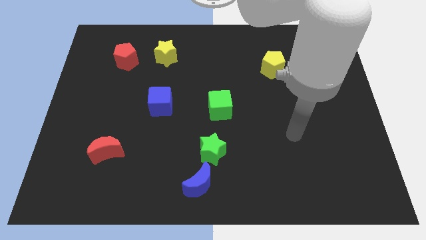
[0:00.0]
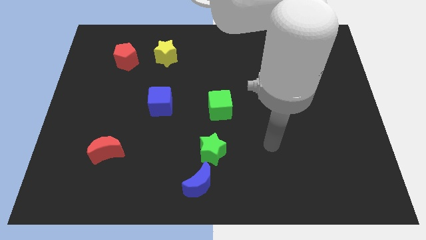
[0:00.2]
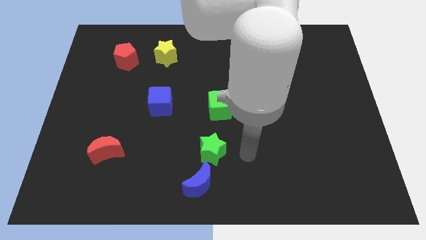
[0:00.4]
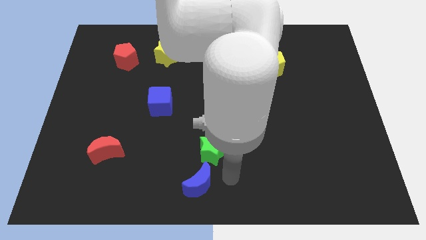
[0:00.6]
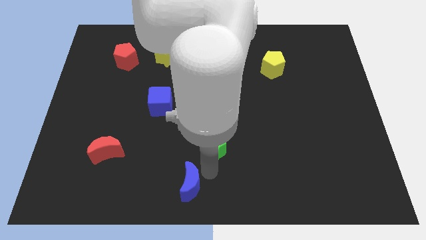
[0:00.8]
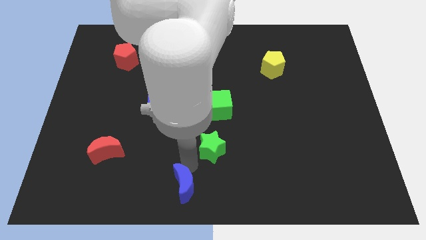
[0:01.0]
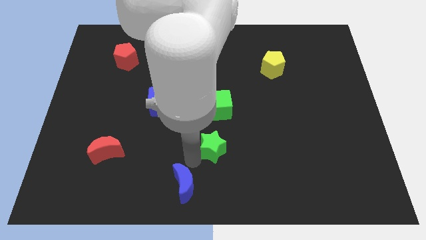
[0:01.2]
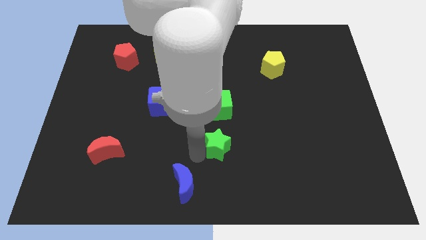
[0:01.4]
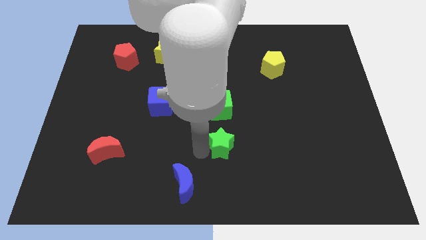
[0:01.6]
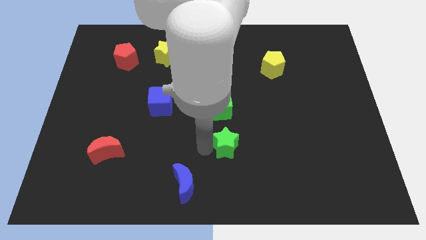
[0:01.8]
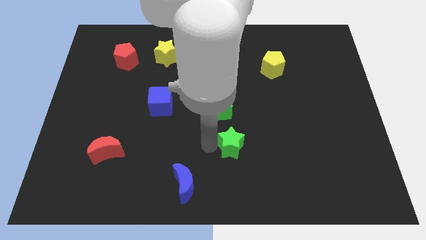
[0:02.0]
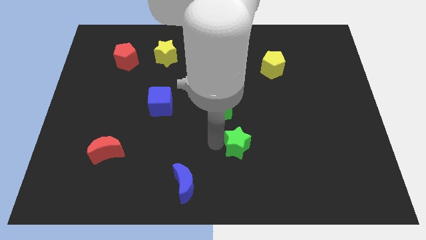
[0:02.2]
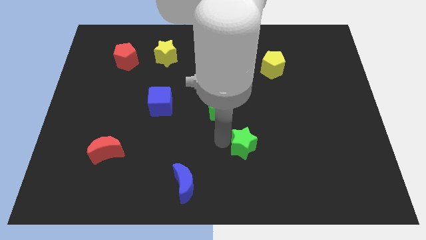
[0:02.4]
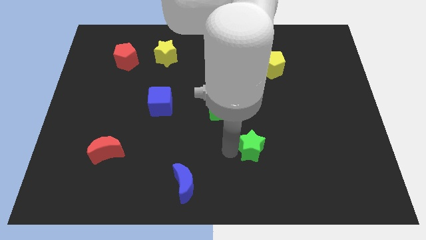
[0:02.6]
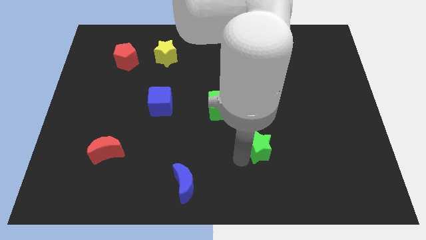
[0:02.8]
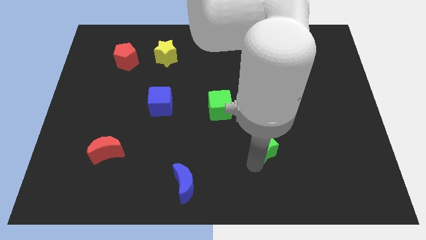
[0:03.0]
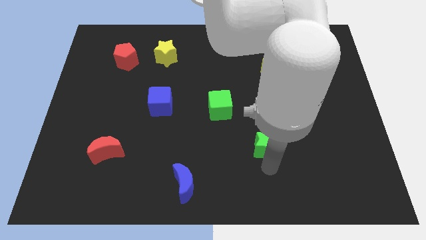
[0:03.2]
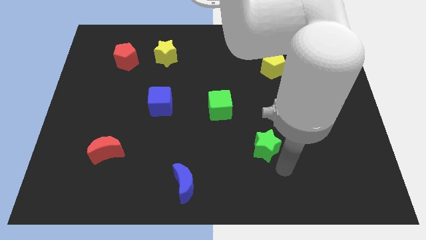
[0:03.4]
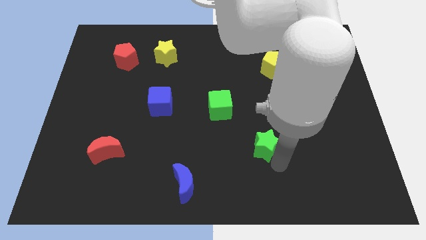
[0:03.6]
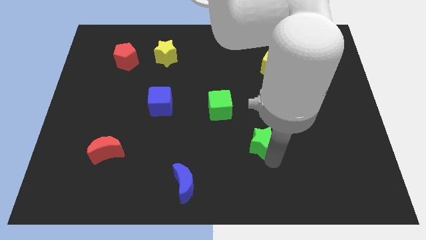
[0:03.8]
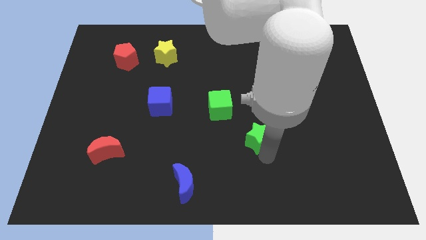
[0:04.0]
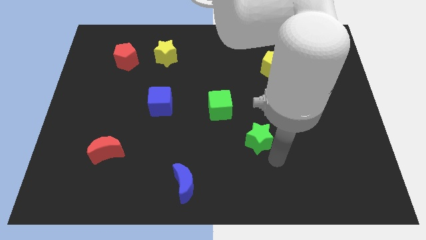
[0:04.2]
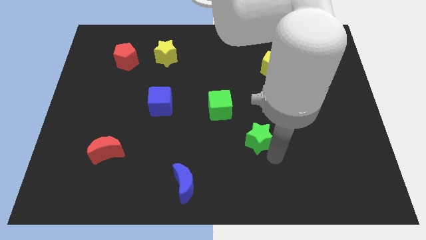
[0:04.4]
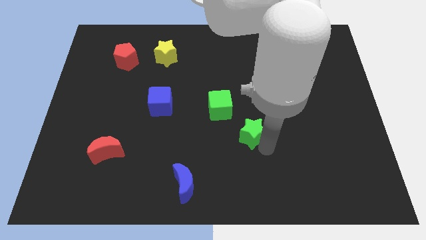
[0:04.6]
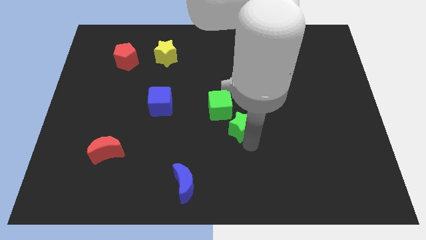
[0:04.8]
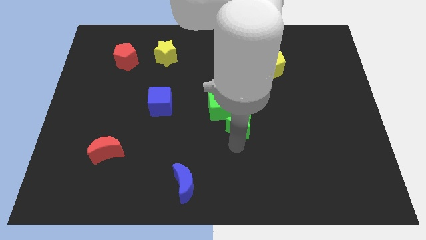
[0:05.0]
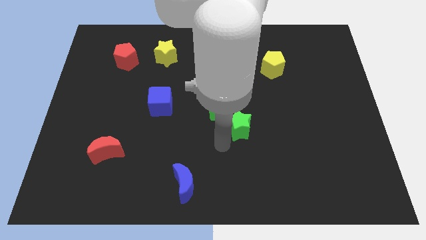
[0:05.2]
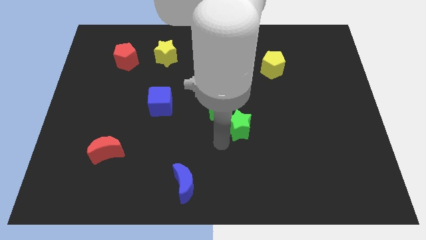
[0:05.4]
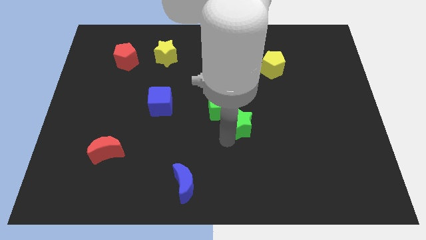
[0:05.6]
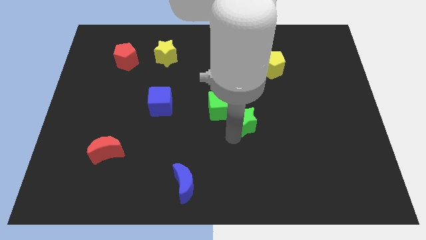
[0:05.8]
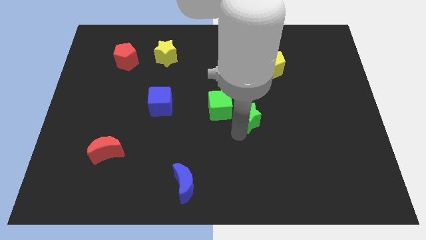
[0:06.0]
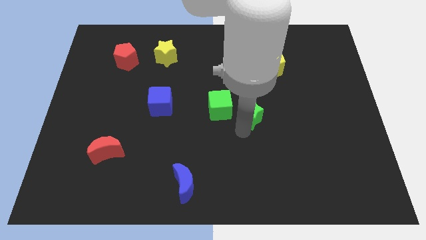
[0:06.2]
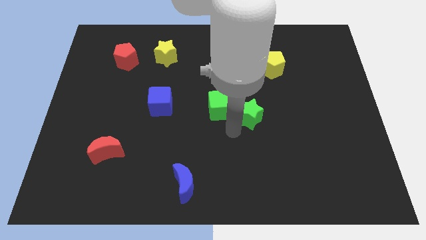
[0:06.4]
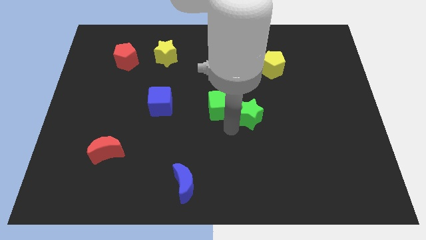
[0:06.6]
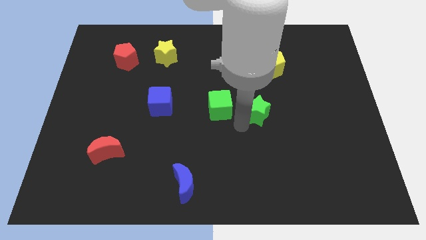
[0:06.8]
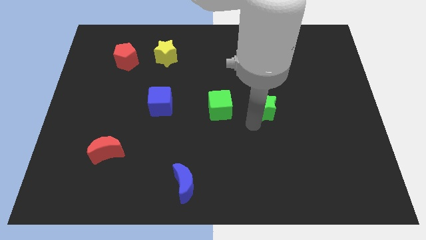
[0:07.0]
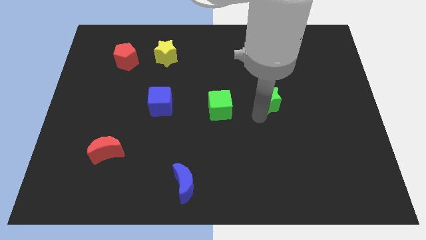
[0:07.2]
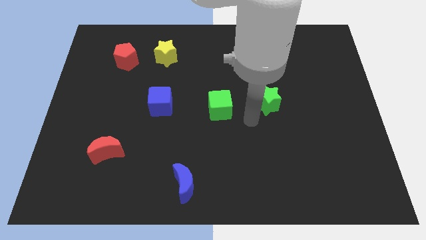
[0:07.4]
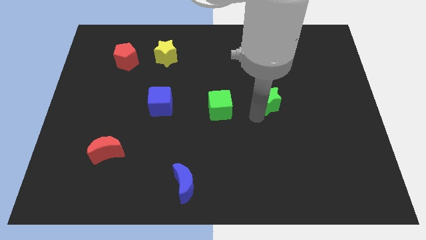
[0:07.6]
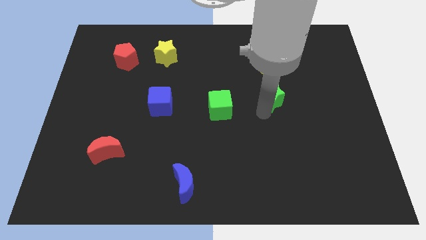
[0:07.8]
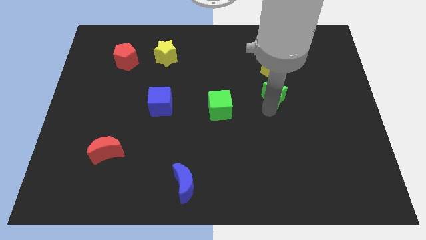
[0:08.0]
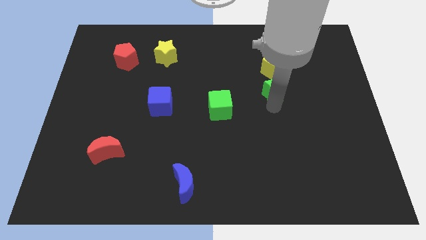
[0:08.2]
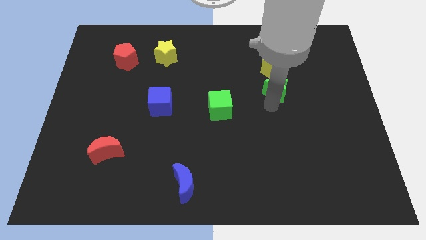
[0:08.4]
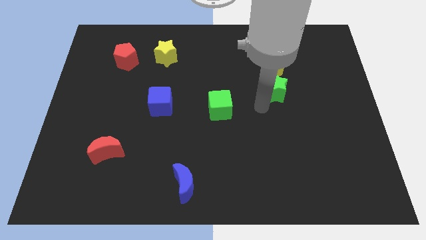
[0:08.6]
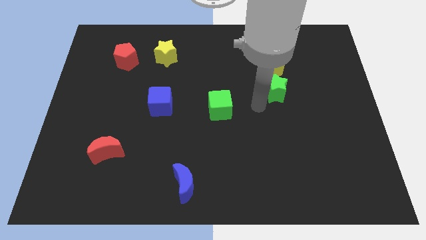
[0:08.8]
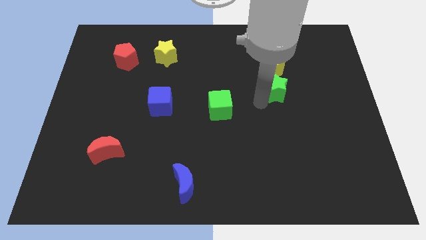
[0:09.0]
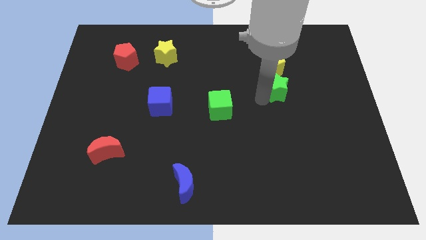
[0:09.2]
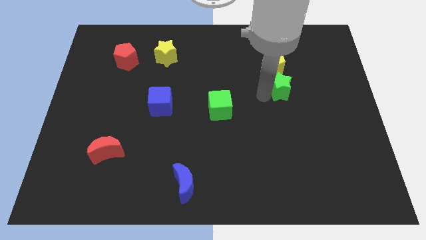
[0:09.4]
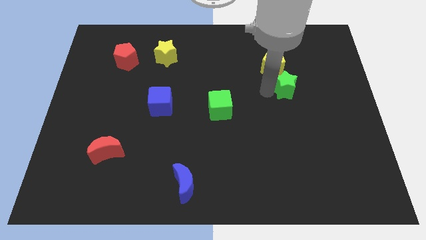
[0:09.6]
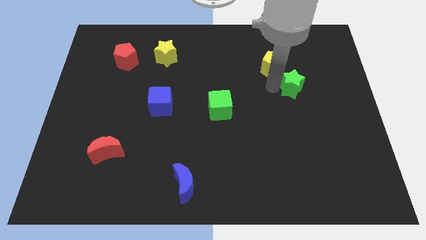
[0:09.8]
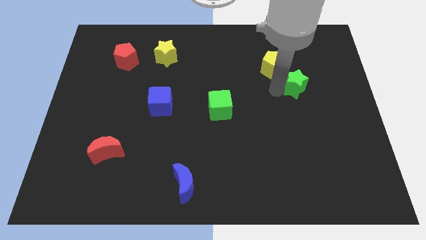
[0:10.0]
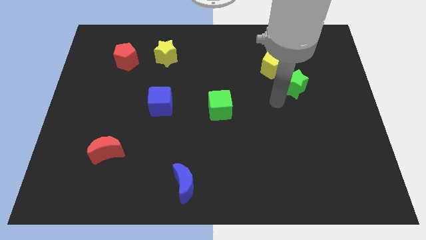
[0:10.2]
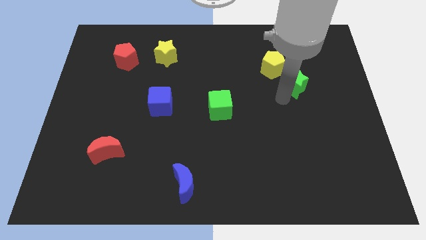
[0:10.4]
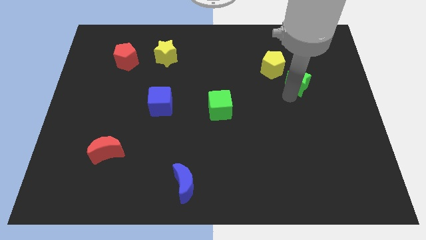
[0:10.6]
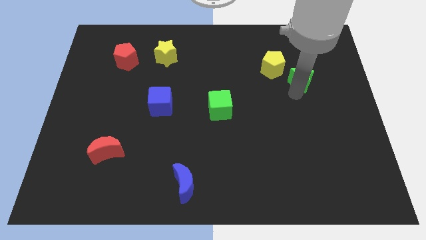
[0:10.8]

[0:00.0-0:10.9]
move the green star just right of the yellow pentagon
